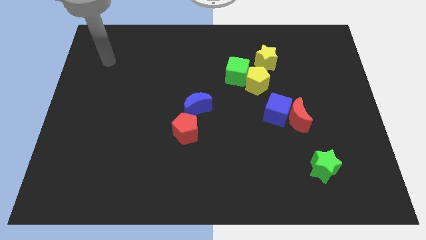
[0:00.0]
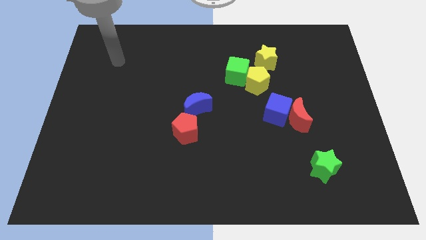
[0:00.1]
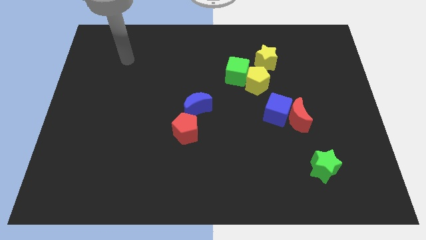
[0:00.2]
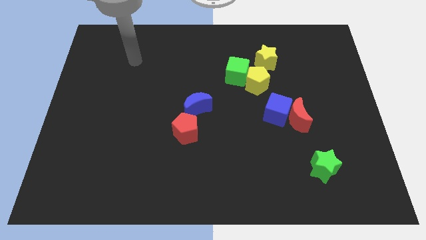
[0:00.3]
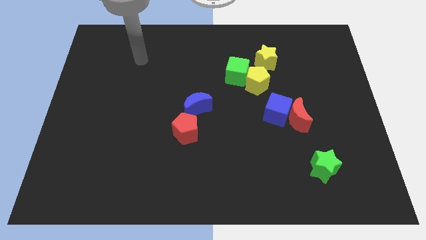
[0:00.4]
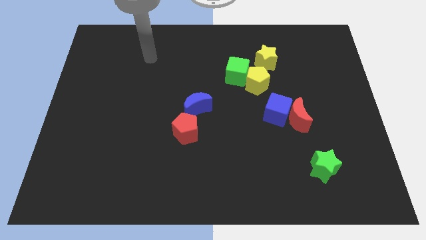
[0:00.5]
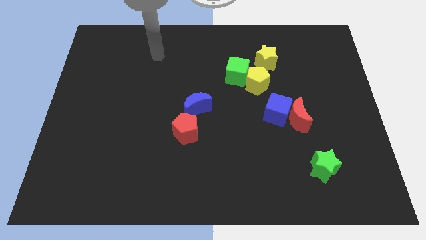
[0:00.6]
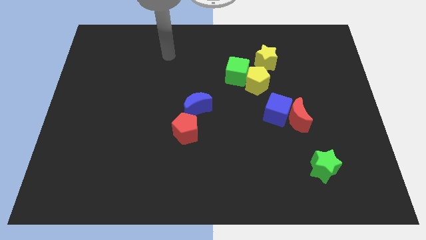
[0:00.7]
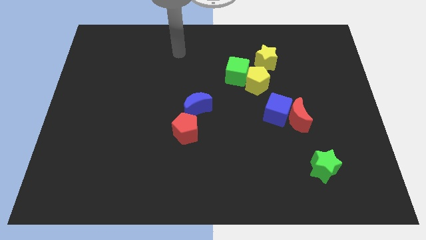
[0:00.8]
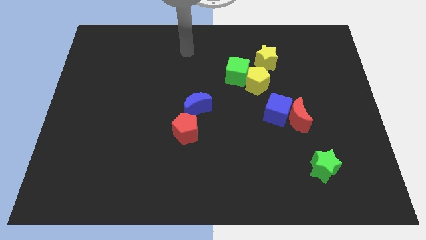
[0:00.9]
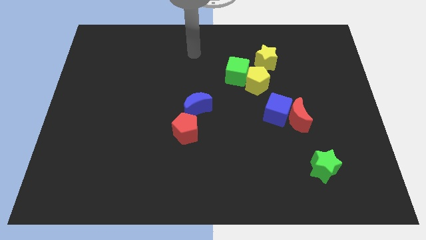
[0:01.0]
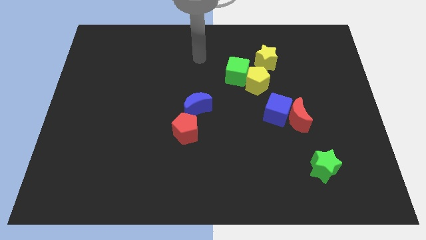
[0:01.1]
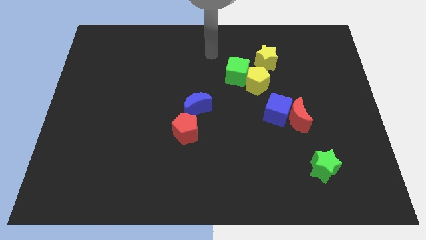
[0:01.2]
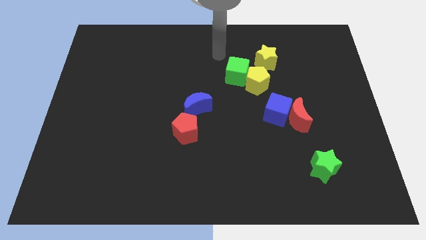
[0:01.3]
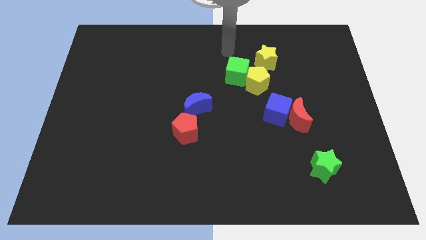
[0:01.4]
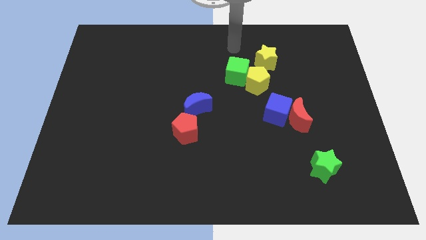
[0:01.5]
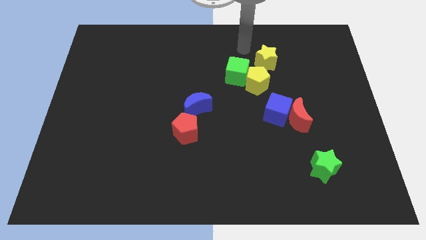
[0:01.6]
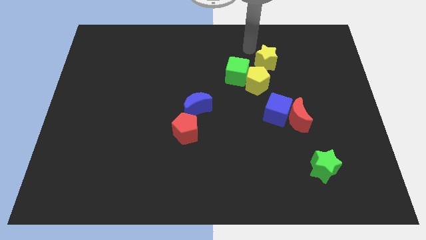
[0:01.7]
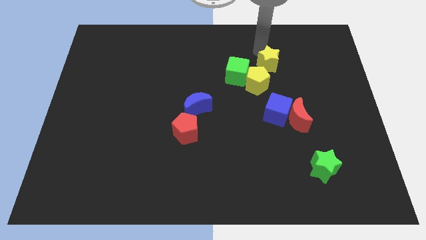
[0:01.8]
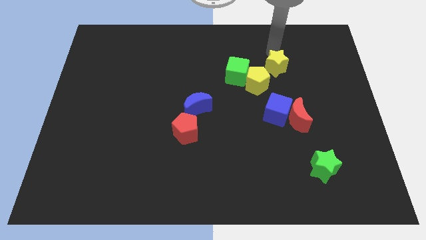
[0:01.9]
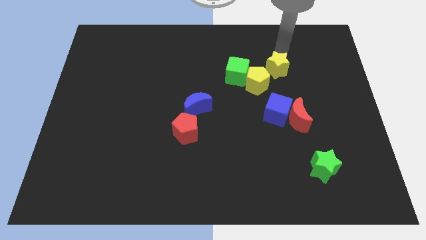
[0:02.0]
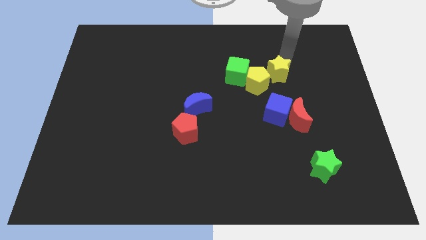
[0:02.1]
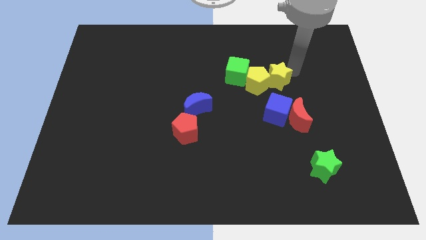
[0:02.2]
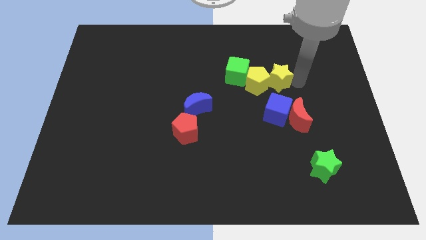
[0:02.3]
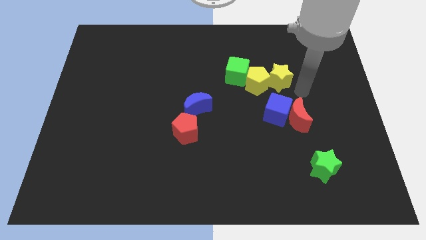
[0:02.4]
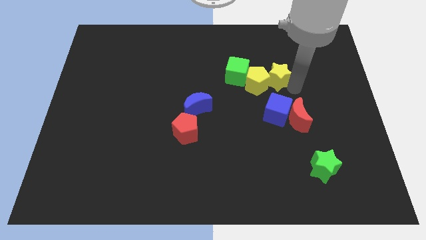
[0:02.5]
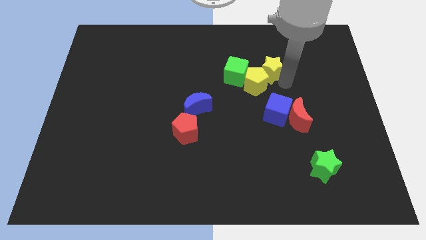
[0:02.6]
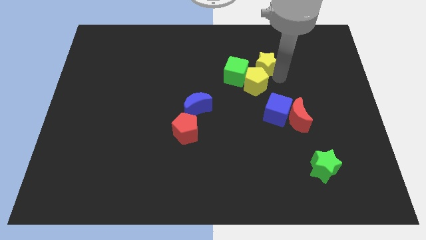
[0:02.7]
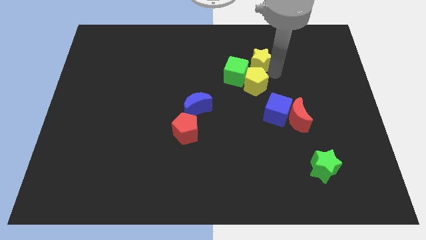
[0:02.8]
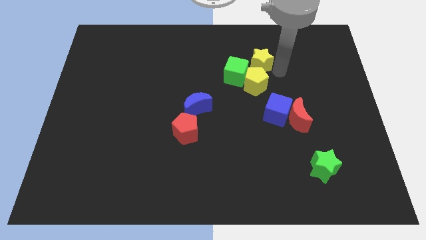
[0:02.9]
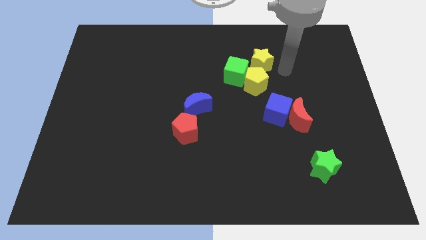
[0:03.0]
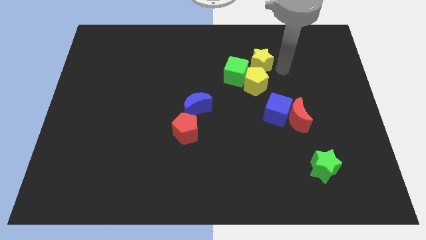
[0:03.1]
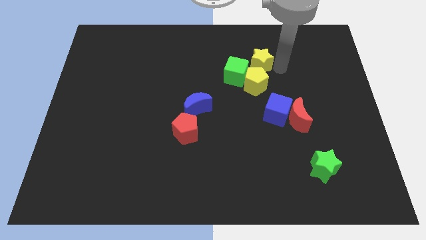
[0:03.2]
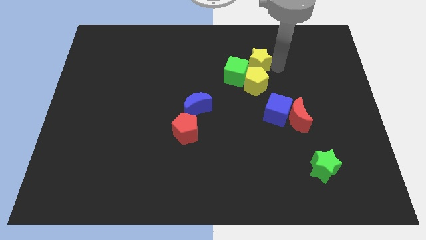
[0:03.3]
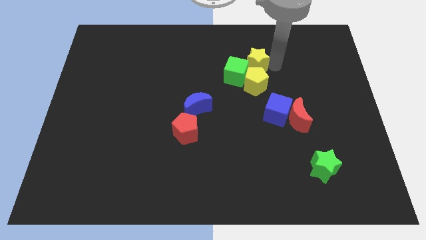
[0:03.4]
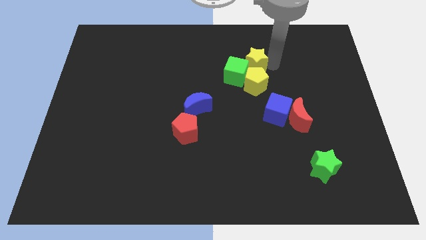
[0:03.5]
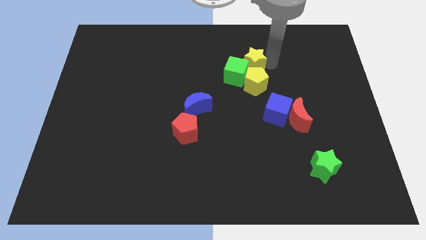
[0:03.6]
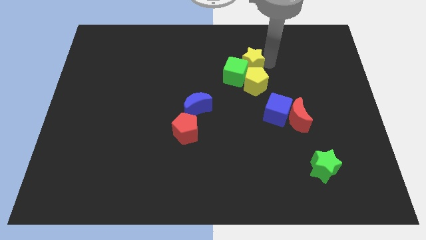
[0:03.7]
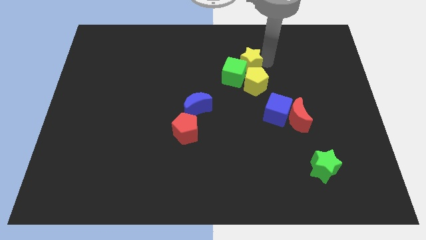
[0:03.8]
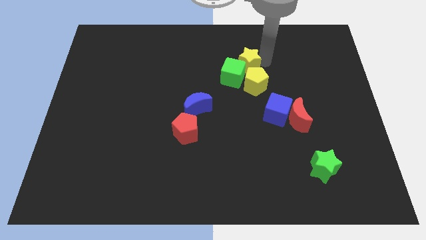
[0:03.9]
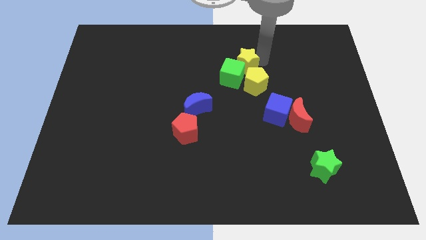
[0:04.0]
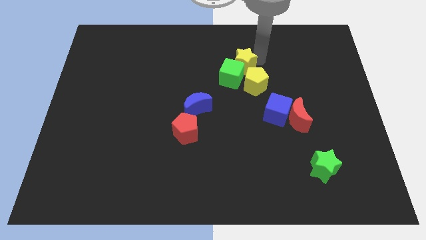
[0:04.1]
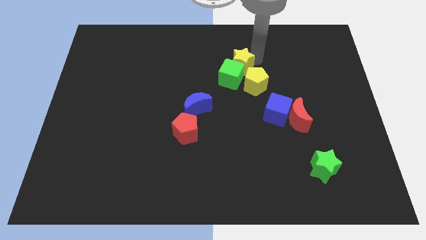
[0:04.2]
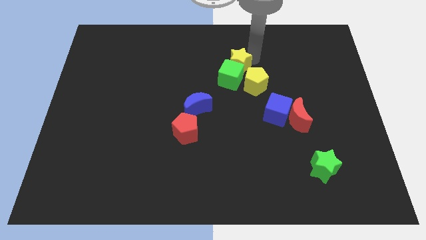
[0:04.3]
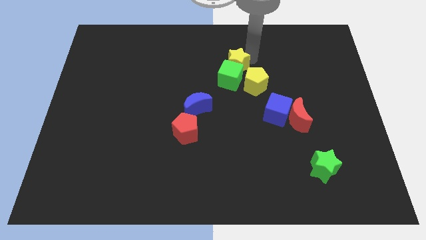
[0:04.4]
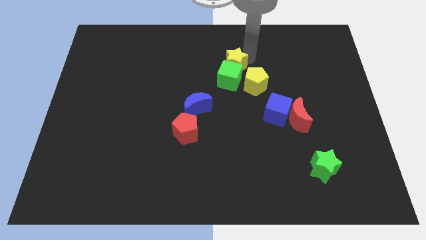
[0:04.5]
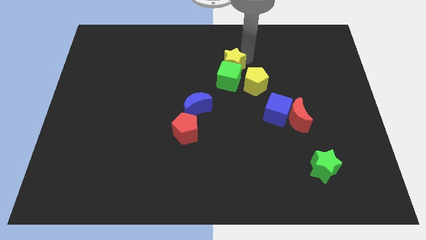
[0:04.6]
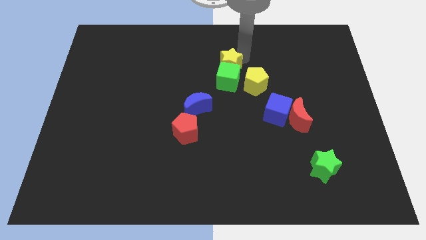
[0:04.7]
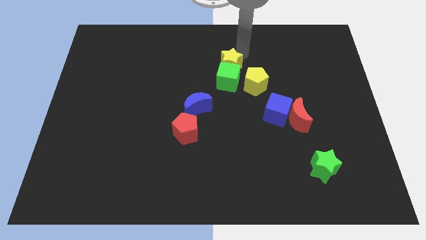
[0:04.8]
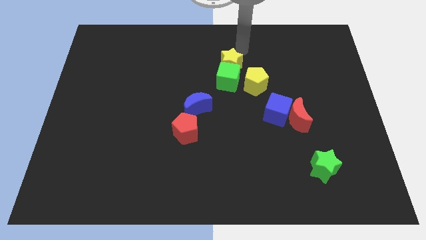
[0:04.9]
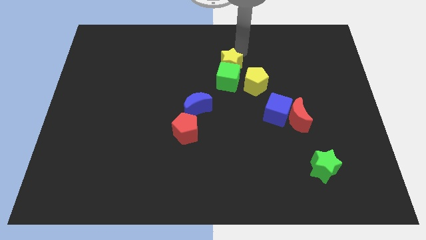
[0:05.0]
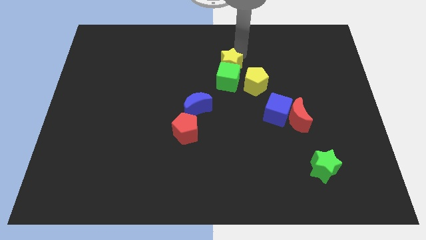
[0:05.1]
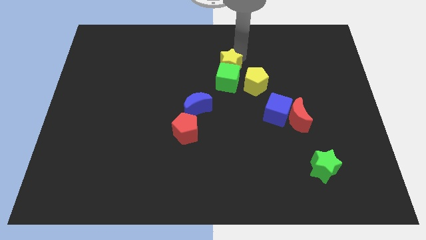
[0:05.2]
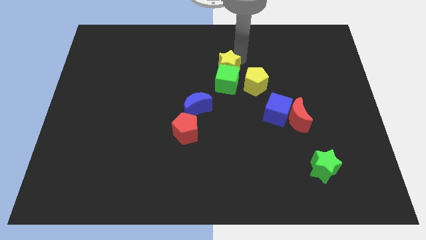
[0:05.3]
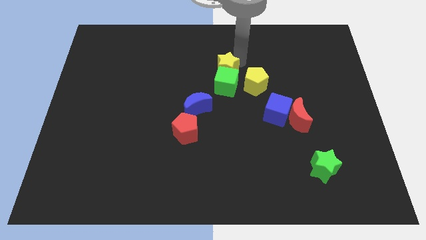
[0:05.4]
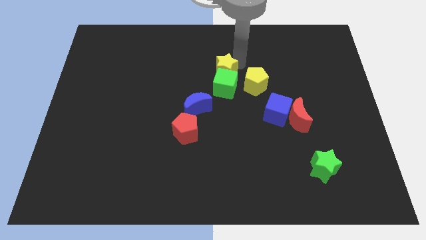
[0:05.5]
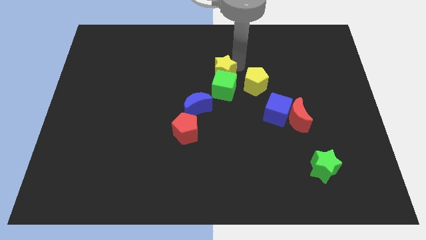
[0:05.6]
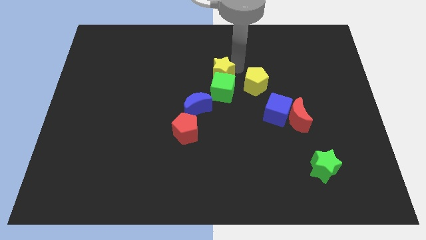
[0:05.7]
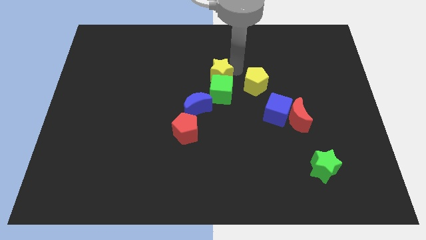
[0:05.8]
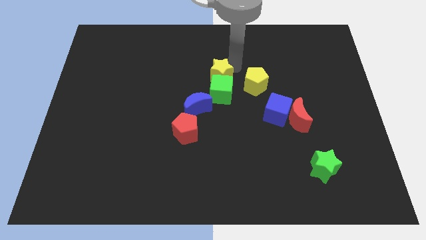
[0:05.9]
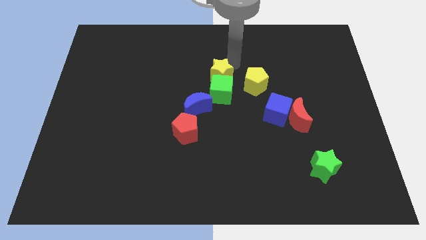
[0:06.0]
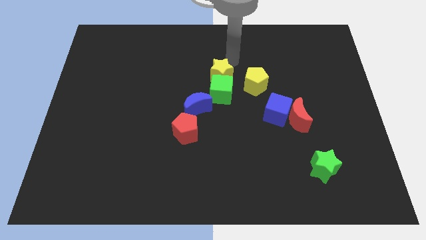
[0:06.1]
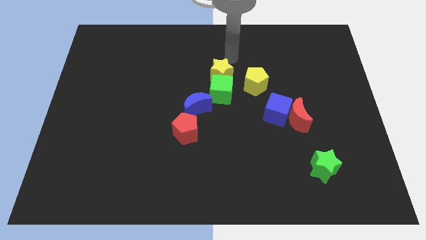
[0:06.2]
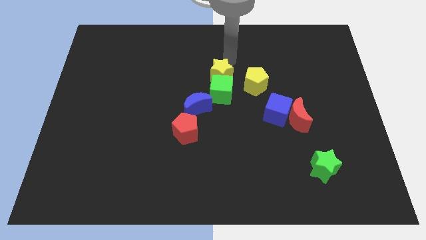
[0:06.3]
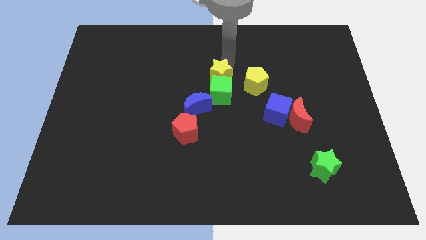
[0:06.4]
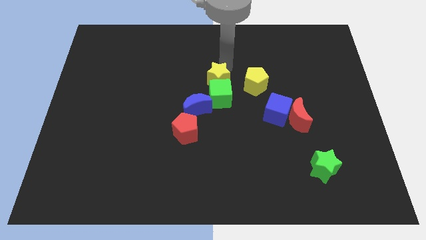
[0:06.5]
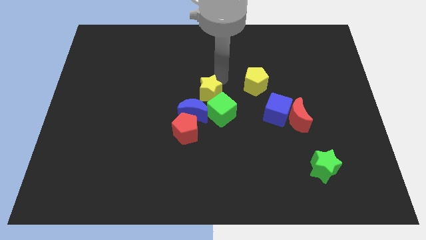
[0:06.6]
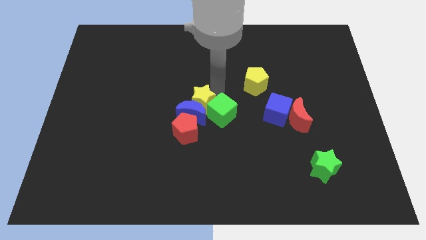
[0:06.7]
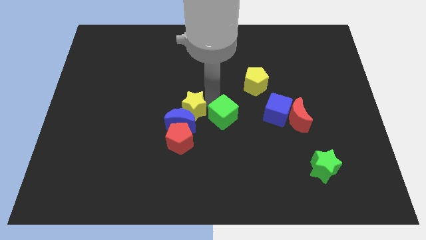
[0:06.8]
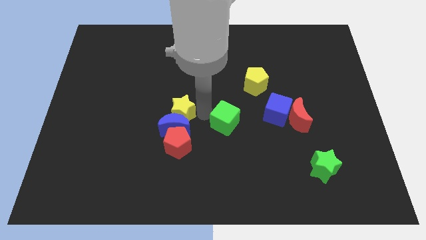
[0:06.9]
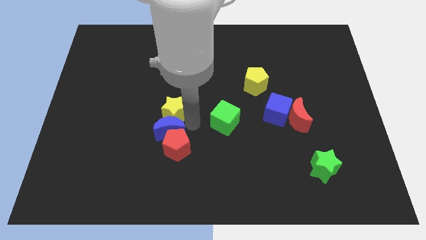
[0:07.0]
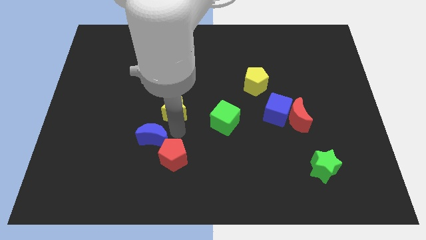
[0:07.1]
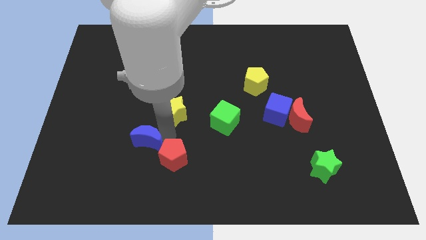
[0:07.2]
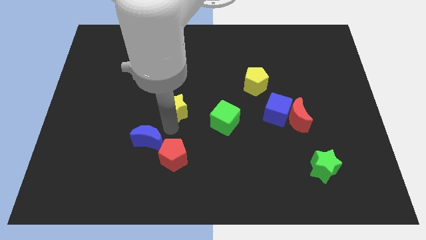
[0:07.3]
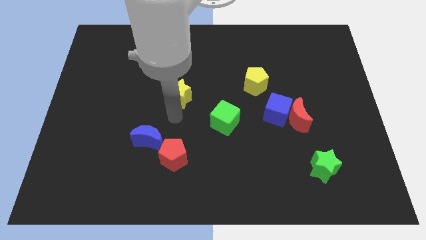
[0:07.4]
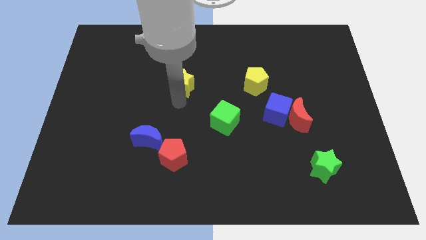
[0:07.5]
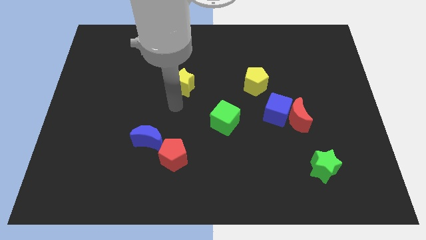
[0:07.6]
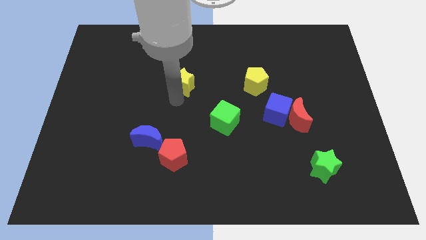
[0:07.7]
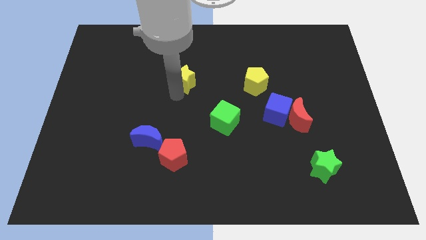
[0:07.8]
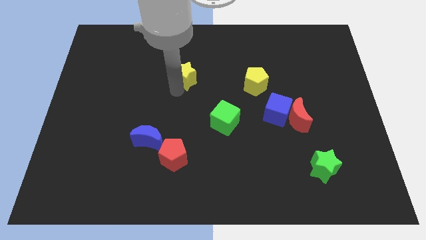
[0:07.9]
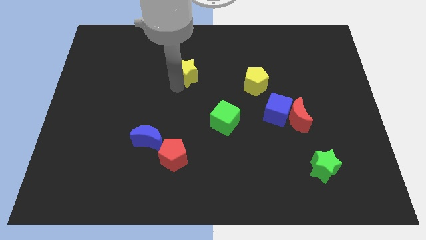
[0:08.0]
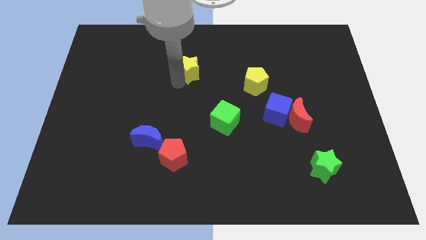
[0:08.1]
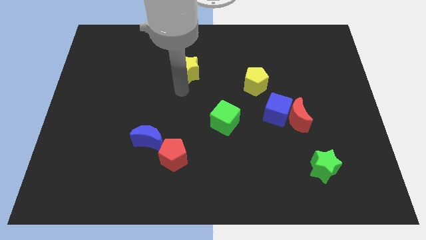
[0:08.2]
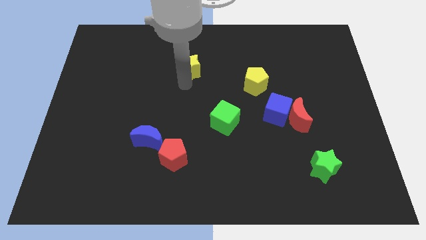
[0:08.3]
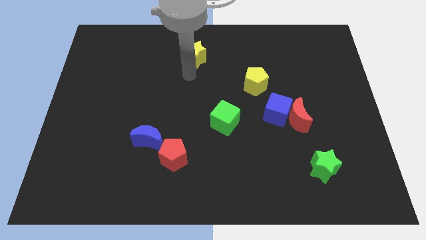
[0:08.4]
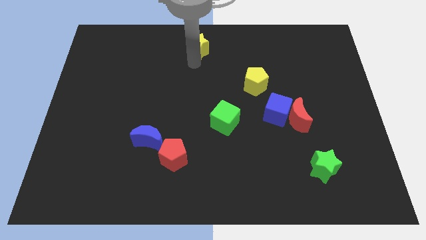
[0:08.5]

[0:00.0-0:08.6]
put the yellow star to the towards your base
